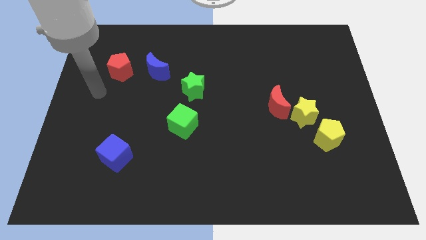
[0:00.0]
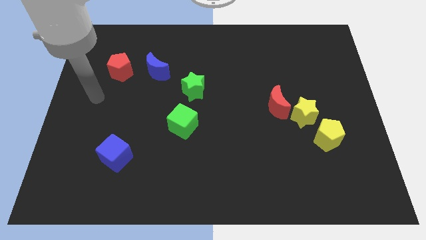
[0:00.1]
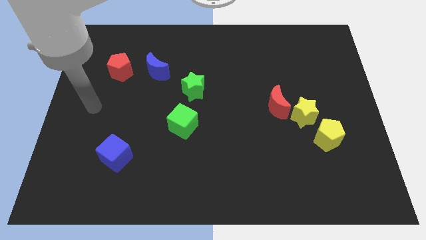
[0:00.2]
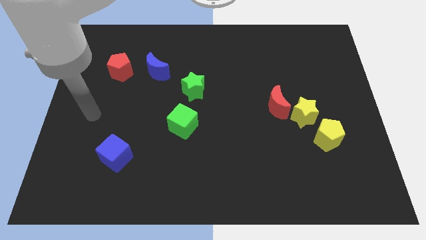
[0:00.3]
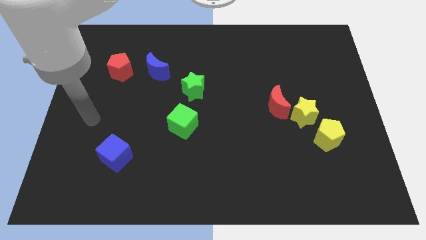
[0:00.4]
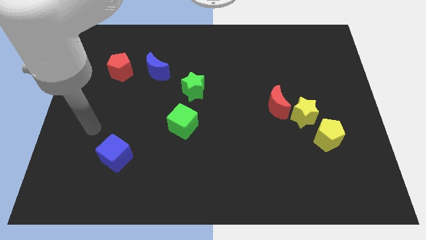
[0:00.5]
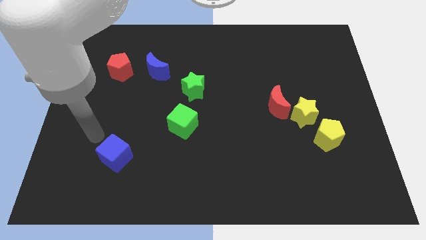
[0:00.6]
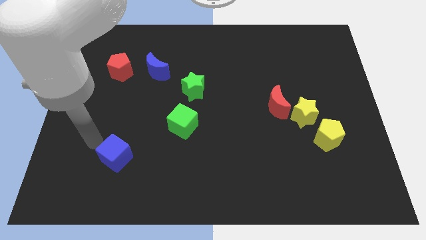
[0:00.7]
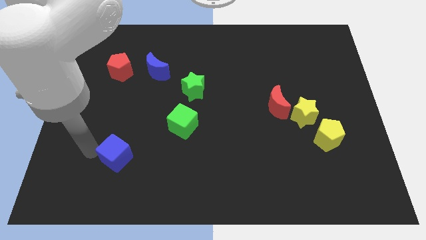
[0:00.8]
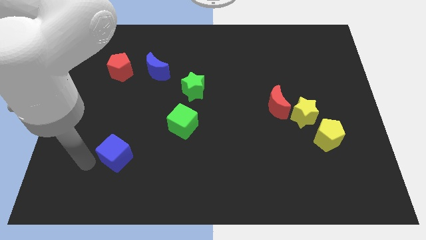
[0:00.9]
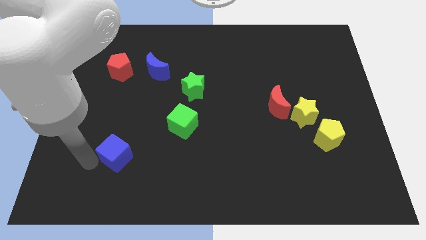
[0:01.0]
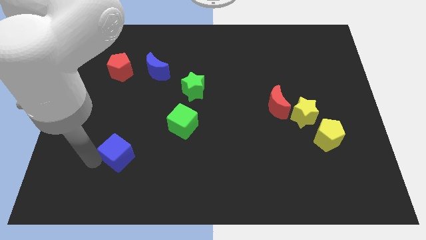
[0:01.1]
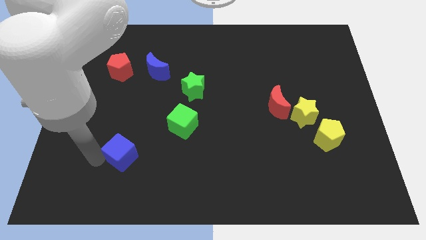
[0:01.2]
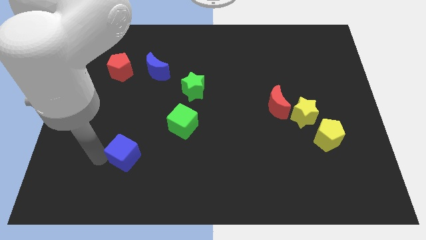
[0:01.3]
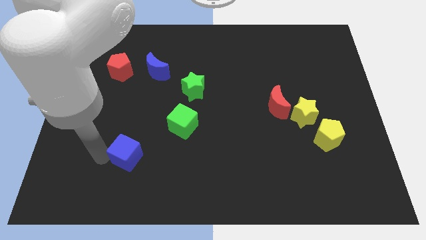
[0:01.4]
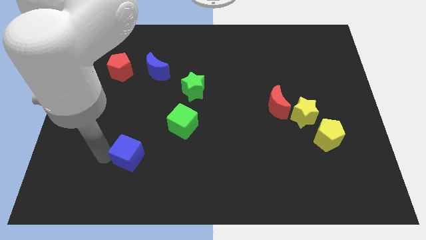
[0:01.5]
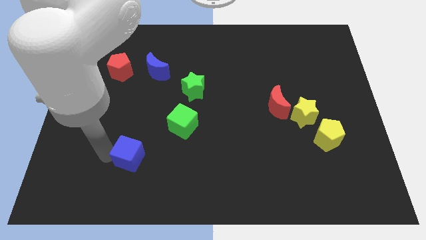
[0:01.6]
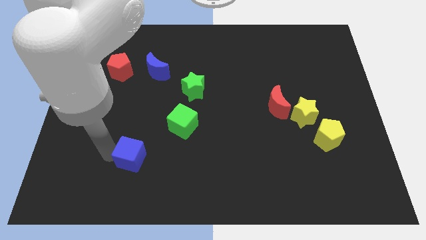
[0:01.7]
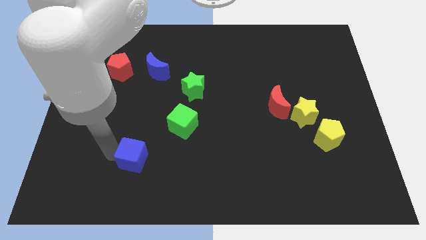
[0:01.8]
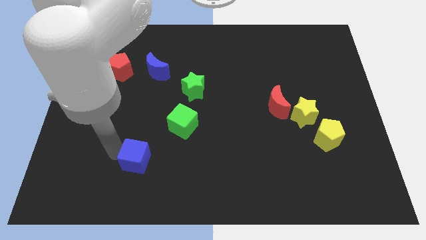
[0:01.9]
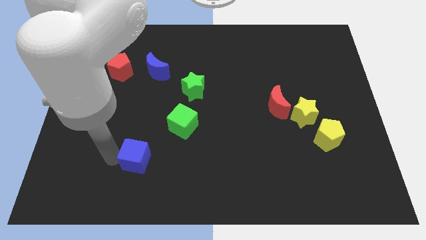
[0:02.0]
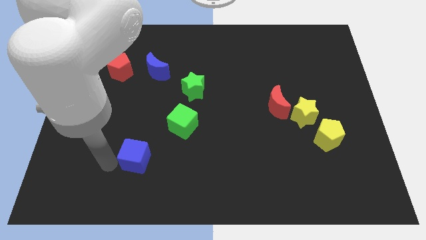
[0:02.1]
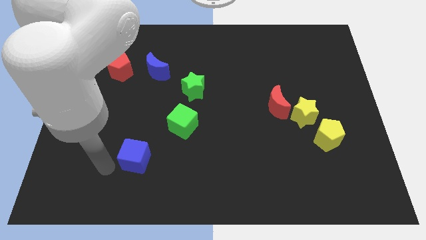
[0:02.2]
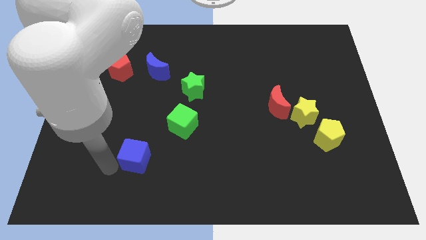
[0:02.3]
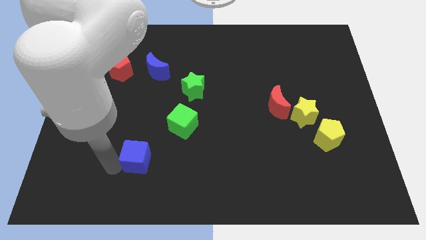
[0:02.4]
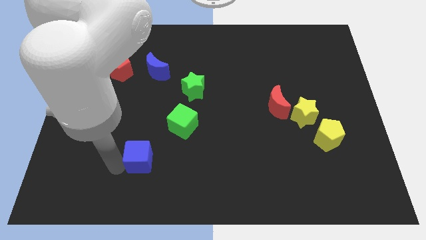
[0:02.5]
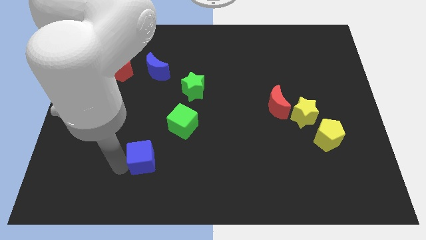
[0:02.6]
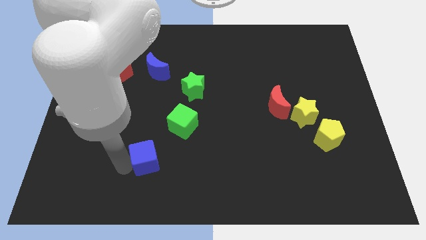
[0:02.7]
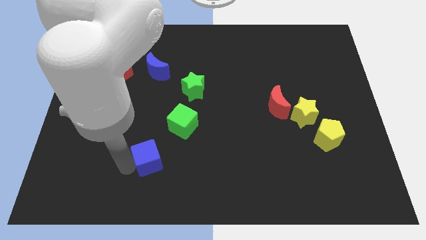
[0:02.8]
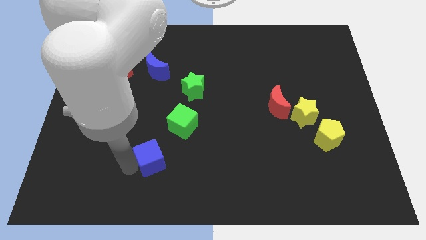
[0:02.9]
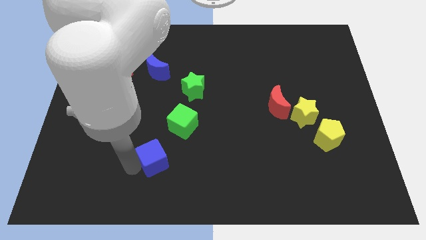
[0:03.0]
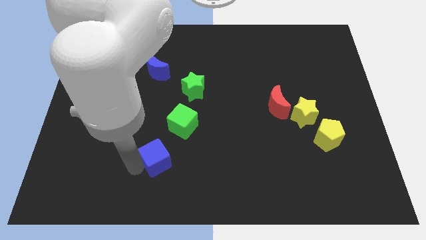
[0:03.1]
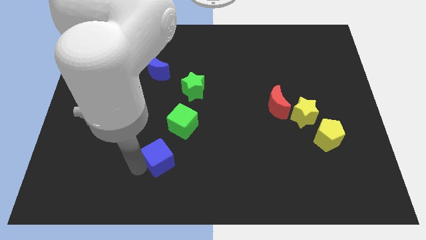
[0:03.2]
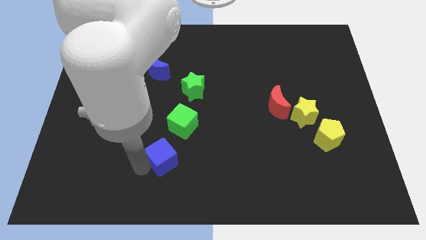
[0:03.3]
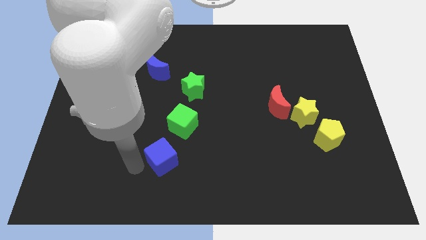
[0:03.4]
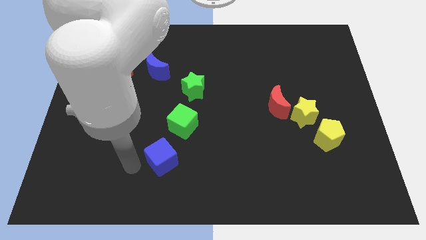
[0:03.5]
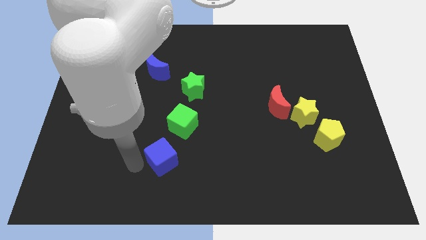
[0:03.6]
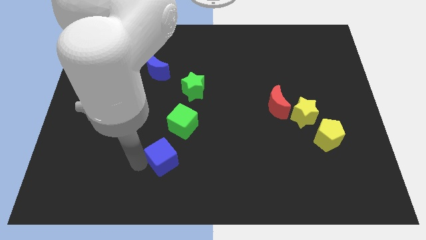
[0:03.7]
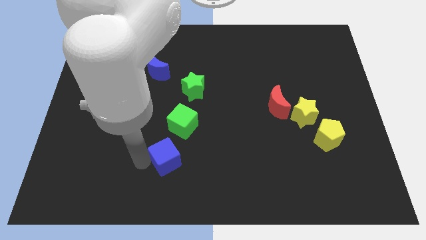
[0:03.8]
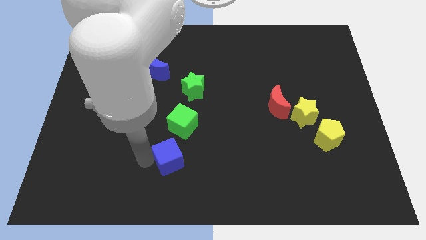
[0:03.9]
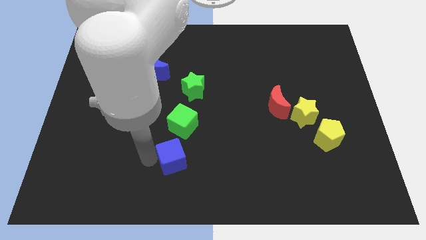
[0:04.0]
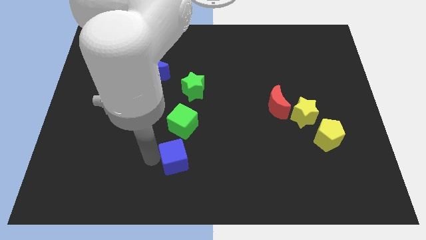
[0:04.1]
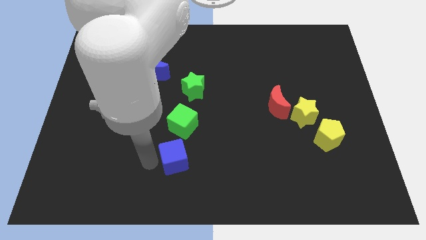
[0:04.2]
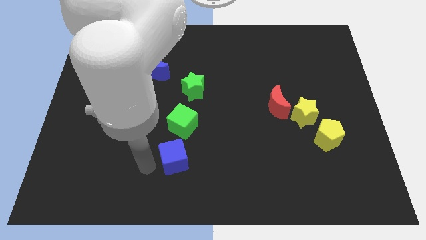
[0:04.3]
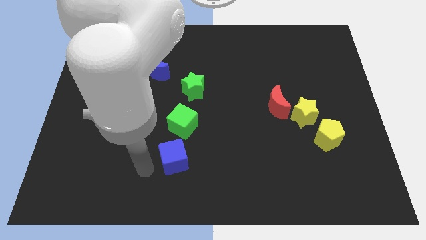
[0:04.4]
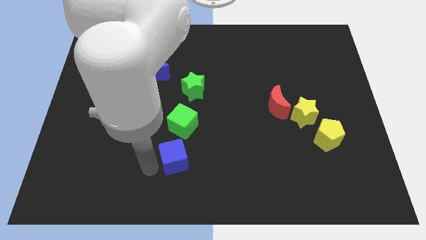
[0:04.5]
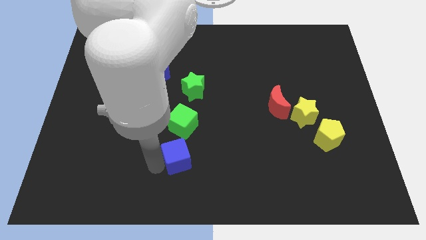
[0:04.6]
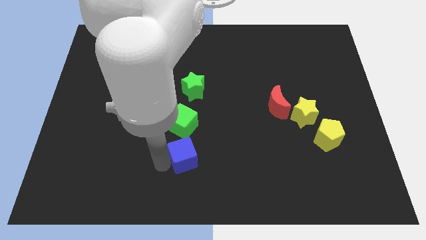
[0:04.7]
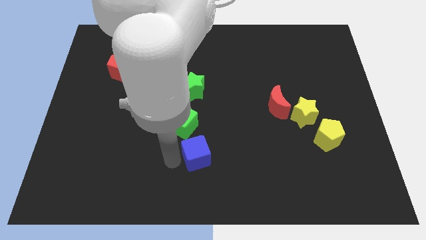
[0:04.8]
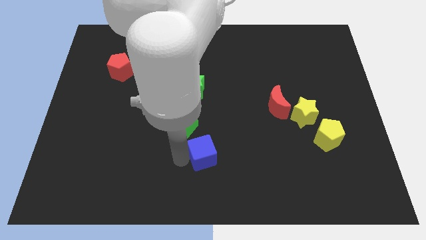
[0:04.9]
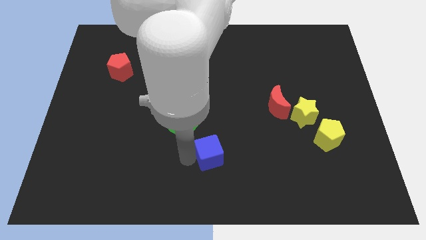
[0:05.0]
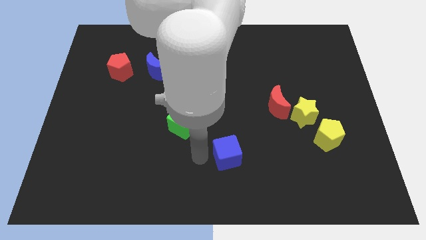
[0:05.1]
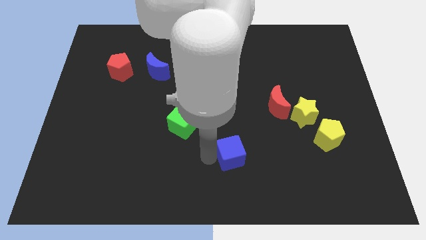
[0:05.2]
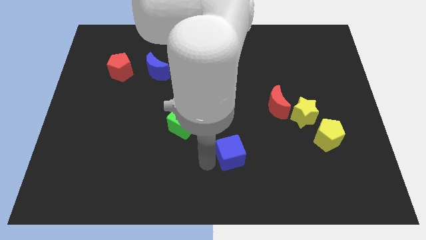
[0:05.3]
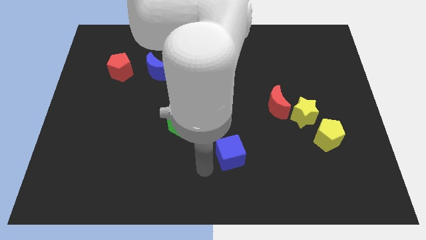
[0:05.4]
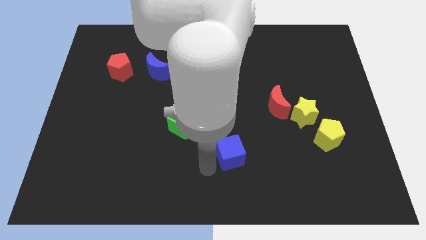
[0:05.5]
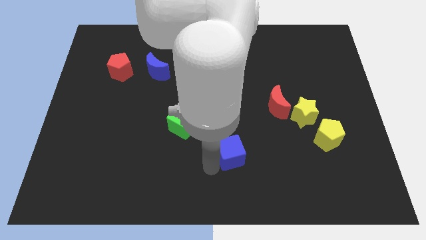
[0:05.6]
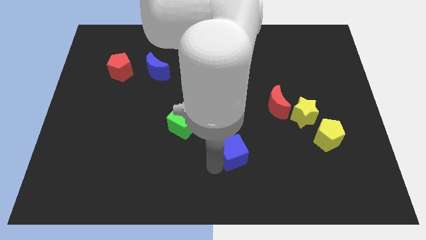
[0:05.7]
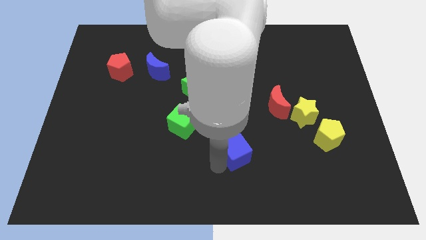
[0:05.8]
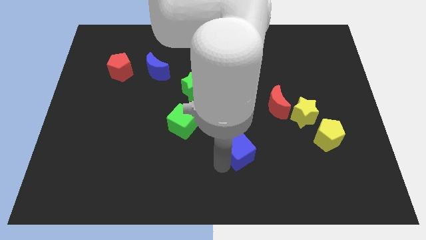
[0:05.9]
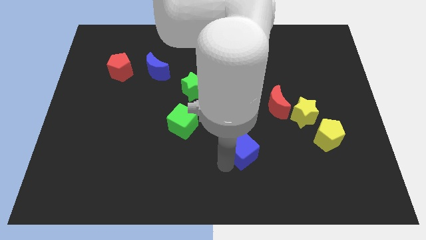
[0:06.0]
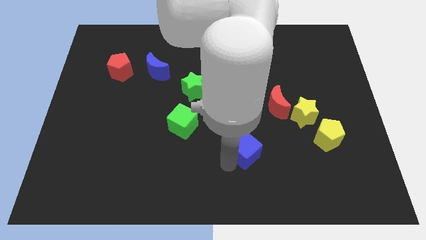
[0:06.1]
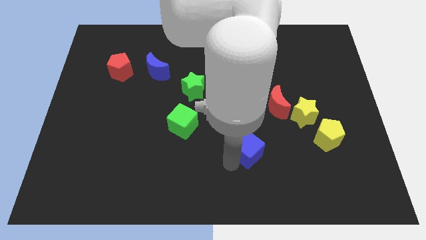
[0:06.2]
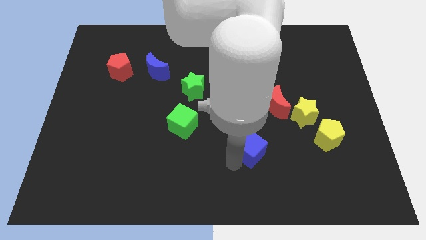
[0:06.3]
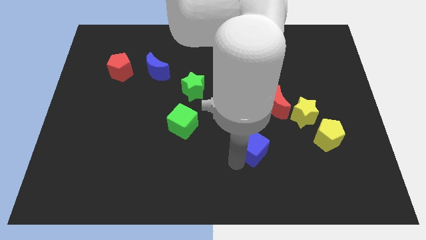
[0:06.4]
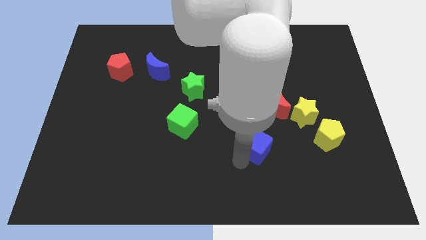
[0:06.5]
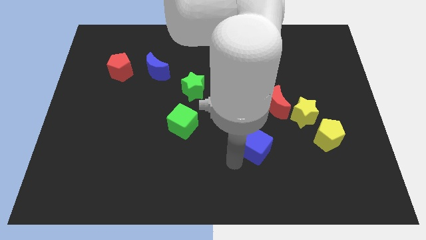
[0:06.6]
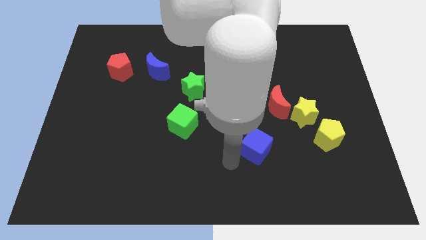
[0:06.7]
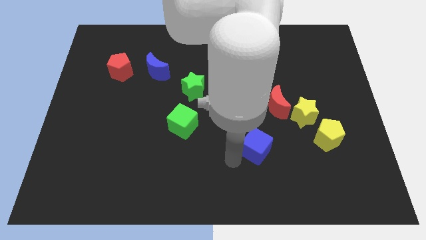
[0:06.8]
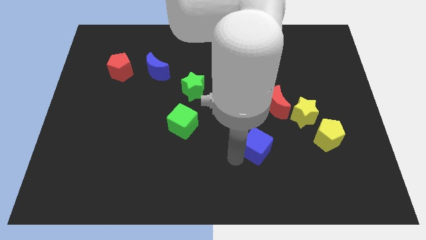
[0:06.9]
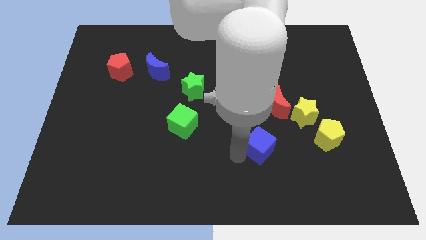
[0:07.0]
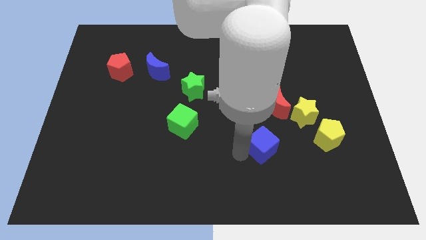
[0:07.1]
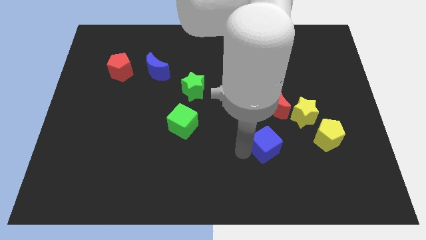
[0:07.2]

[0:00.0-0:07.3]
move the blue cube to the bottom left side of the yellow star

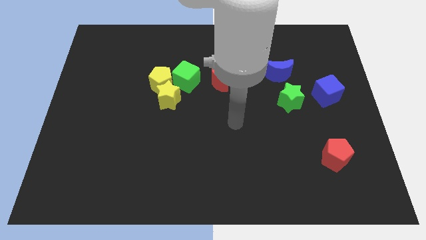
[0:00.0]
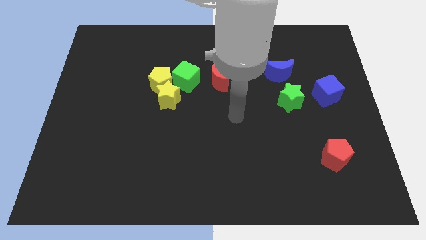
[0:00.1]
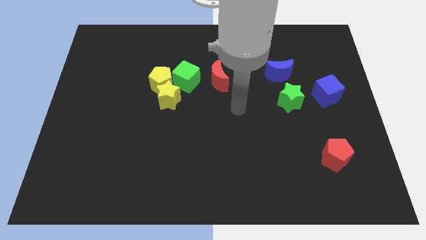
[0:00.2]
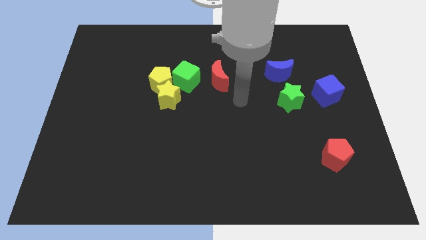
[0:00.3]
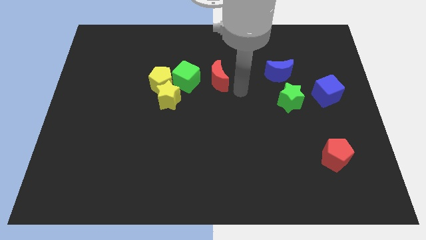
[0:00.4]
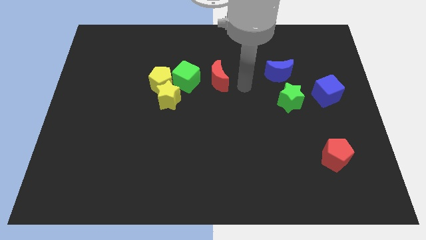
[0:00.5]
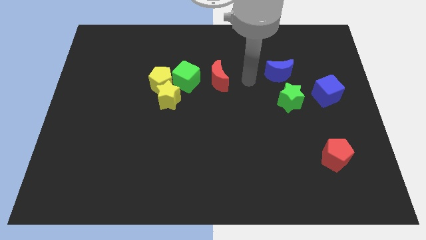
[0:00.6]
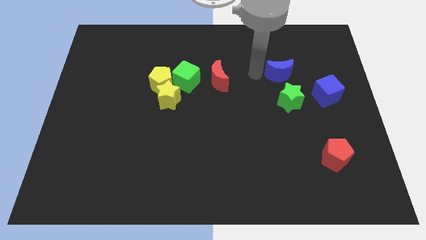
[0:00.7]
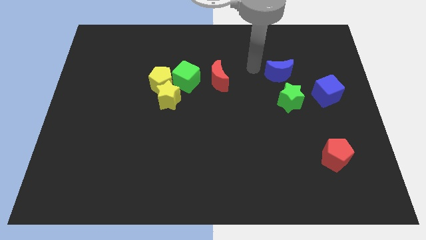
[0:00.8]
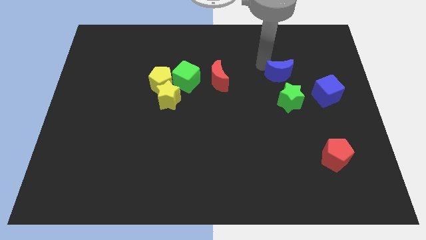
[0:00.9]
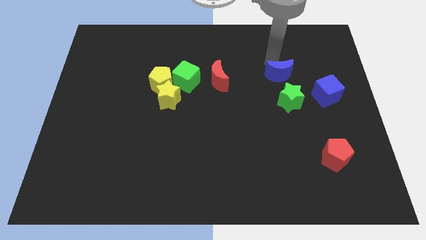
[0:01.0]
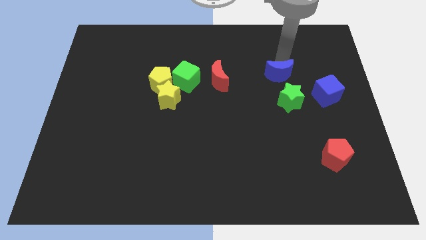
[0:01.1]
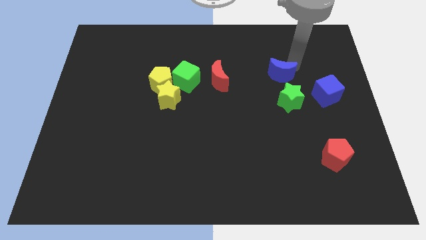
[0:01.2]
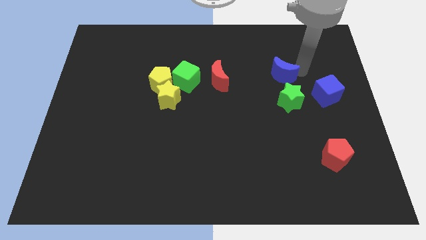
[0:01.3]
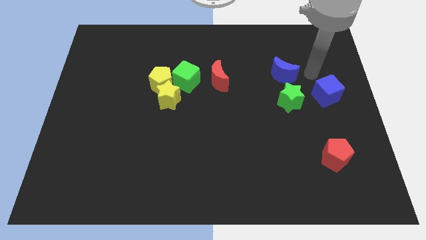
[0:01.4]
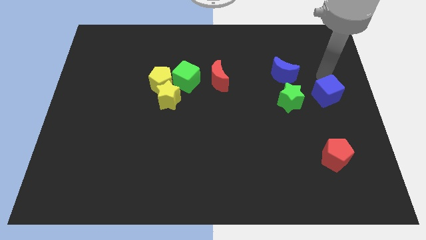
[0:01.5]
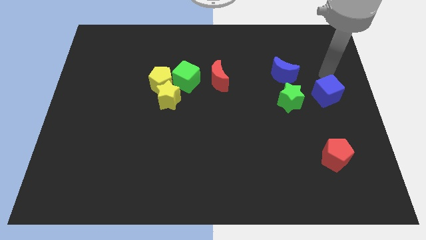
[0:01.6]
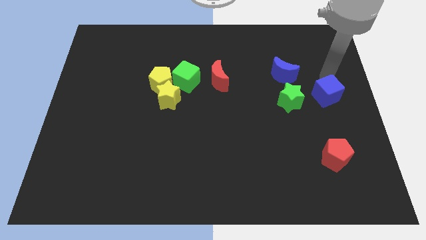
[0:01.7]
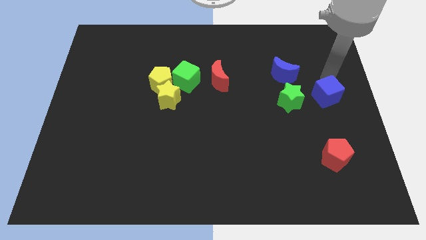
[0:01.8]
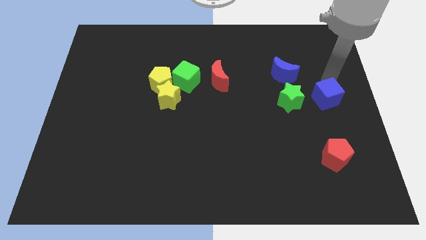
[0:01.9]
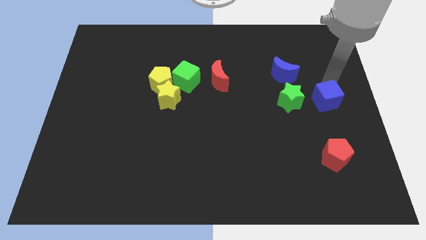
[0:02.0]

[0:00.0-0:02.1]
move the blue cube above the red pentagon
